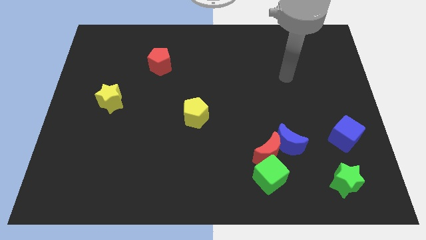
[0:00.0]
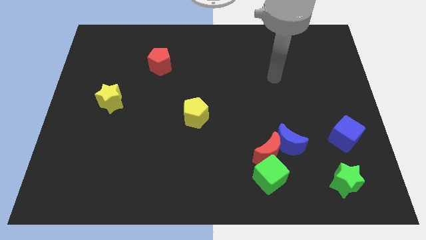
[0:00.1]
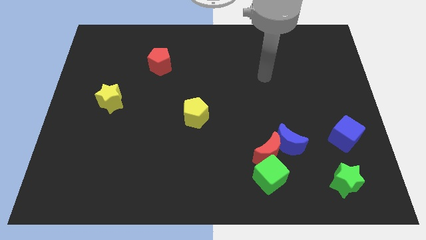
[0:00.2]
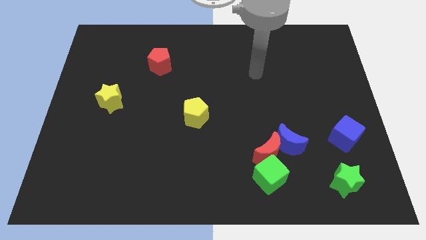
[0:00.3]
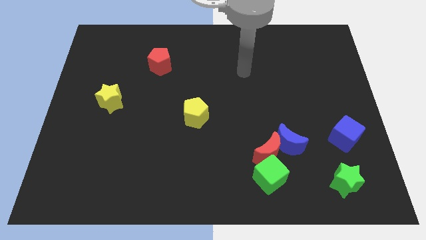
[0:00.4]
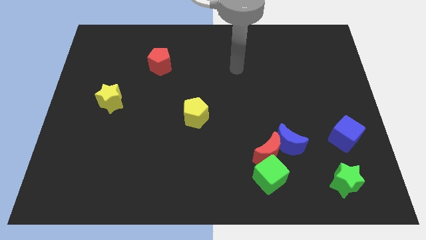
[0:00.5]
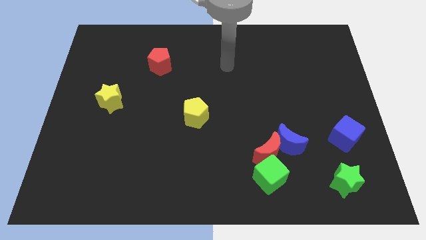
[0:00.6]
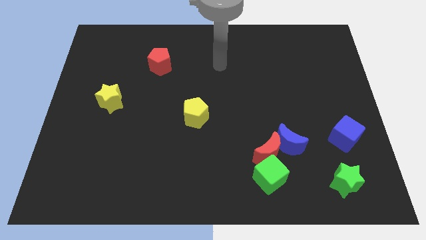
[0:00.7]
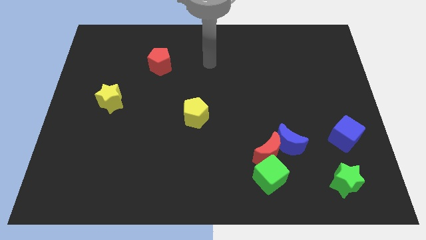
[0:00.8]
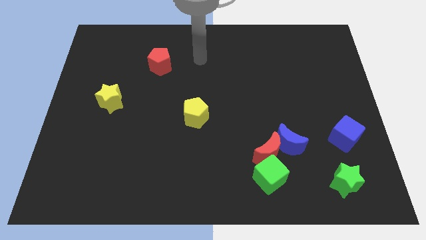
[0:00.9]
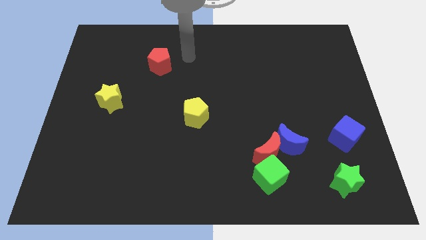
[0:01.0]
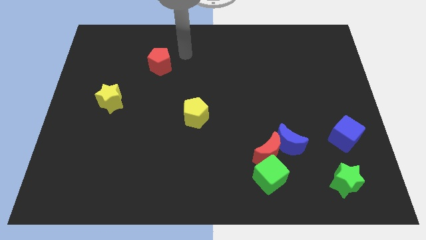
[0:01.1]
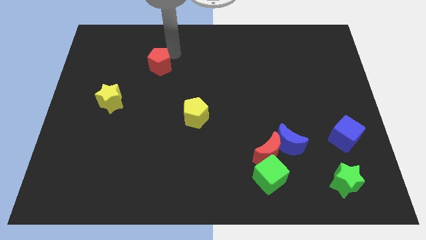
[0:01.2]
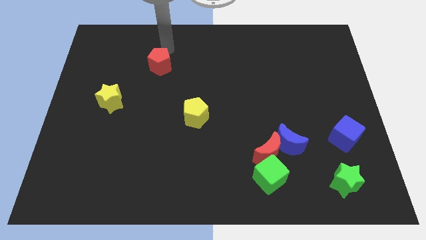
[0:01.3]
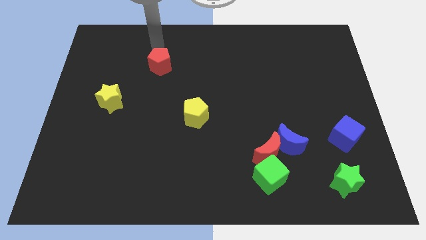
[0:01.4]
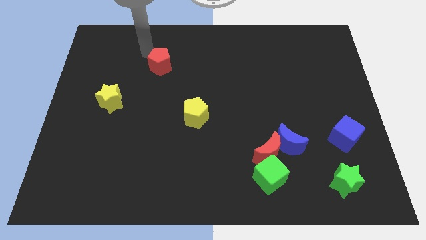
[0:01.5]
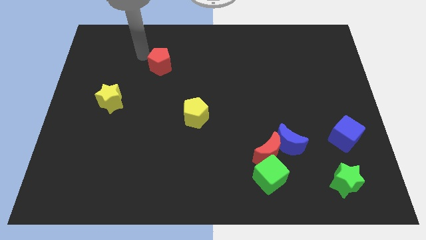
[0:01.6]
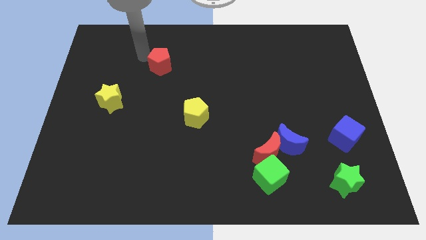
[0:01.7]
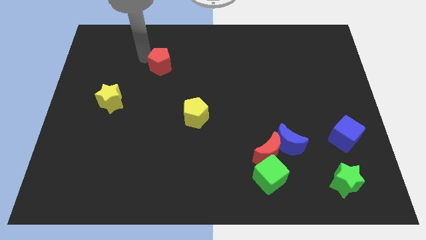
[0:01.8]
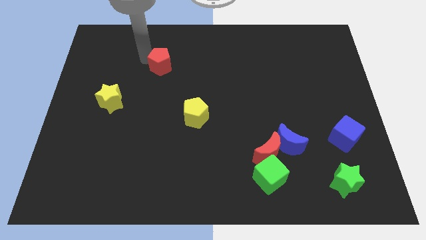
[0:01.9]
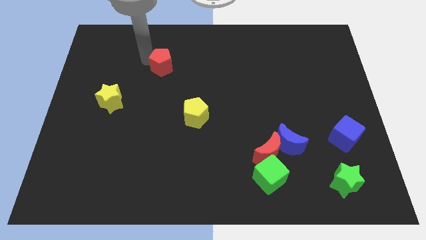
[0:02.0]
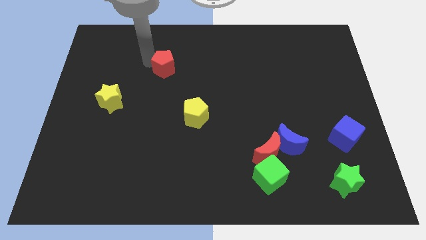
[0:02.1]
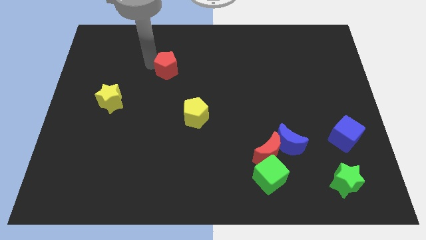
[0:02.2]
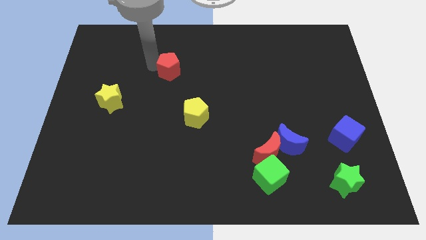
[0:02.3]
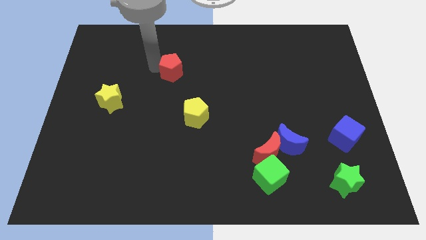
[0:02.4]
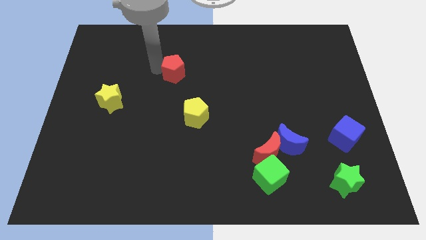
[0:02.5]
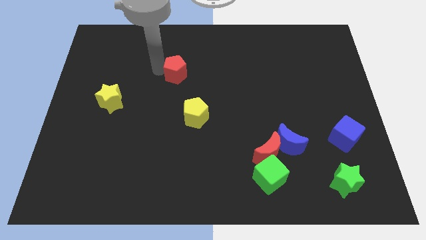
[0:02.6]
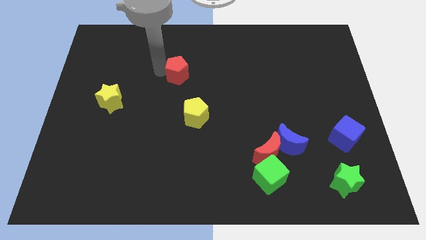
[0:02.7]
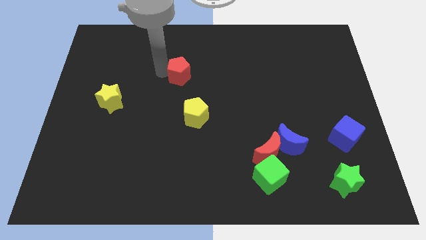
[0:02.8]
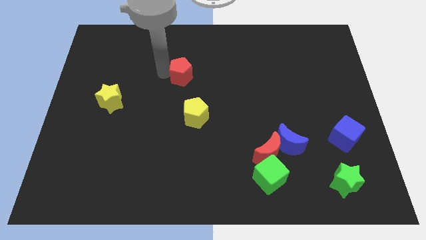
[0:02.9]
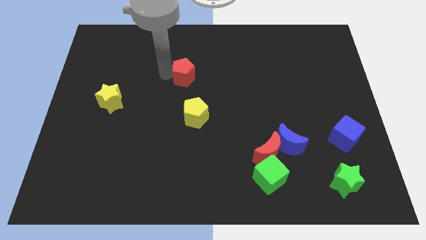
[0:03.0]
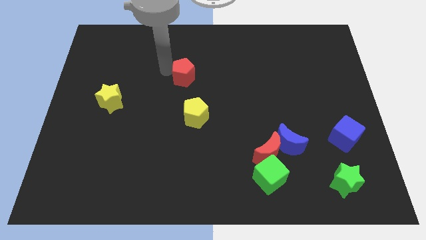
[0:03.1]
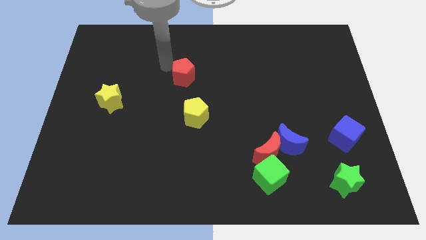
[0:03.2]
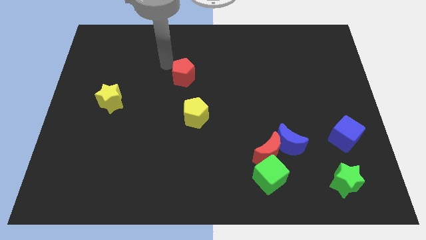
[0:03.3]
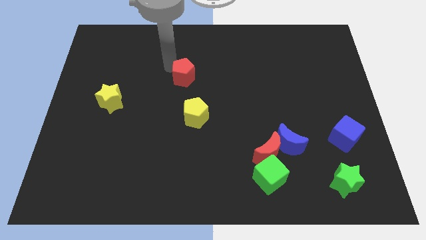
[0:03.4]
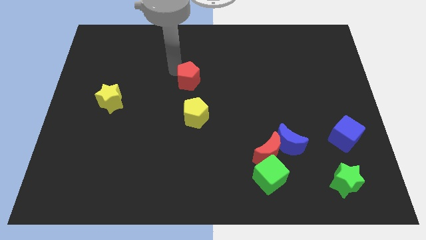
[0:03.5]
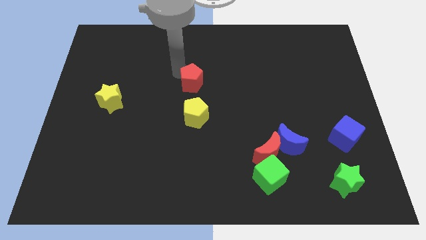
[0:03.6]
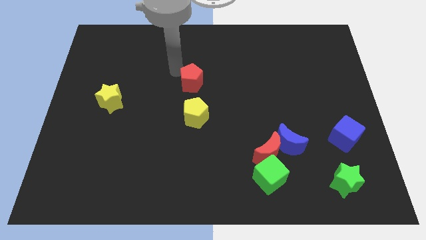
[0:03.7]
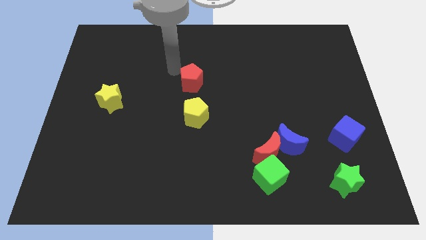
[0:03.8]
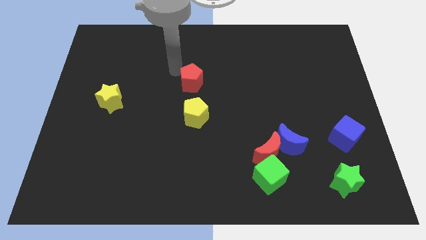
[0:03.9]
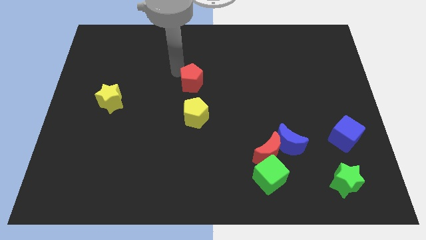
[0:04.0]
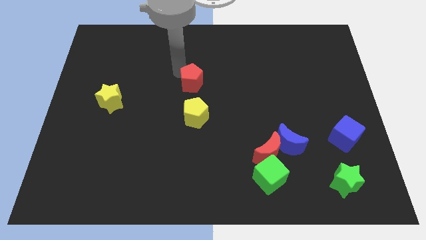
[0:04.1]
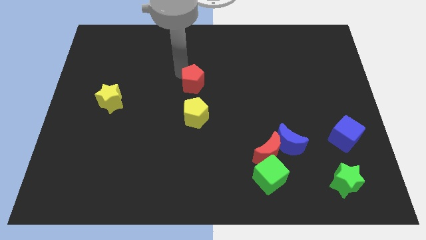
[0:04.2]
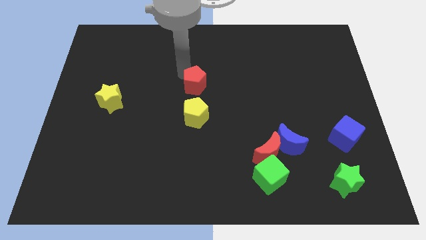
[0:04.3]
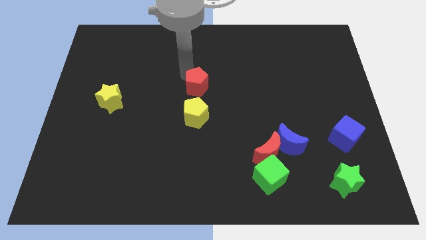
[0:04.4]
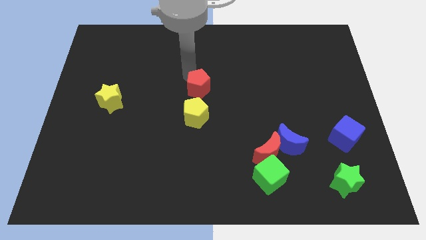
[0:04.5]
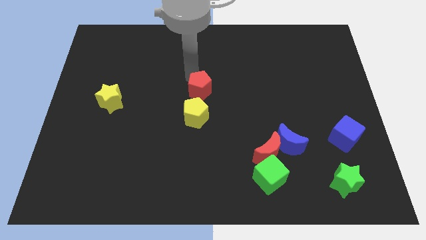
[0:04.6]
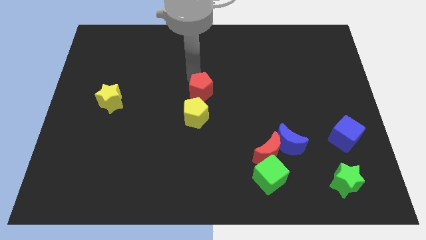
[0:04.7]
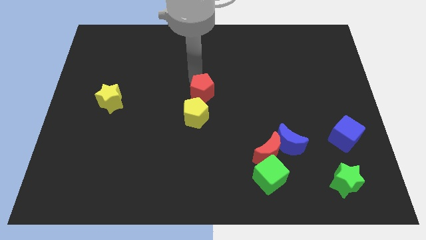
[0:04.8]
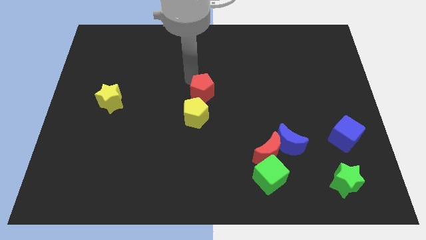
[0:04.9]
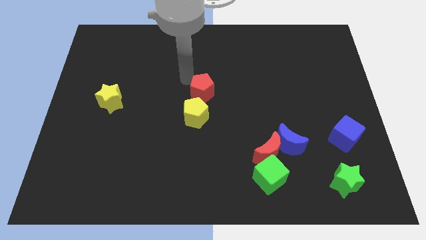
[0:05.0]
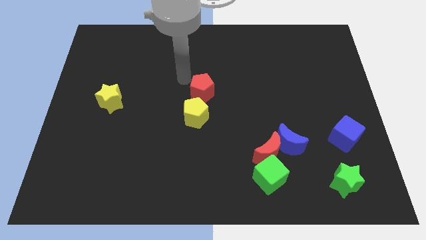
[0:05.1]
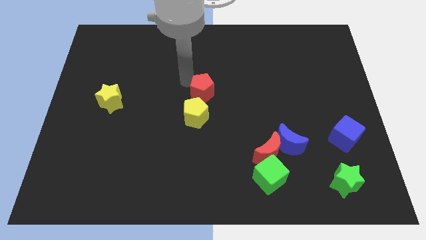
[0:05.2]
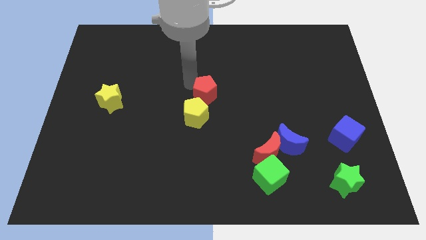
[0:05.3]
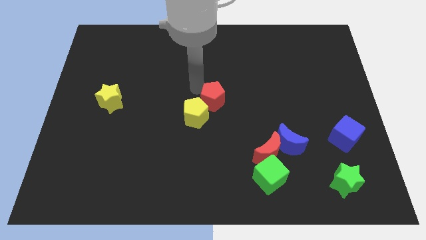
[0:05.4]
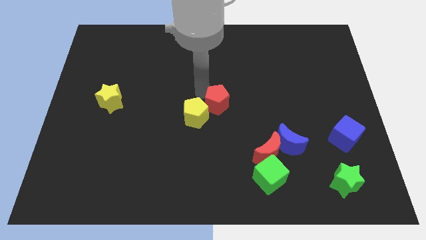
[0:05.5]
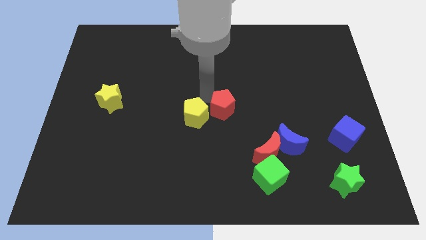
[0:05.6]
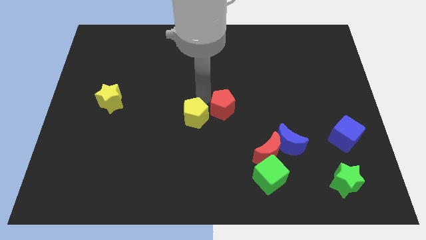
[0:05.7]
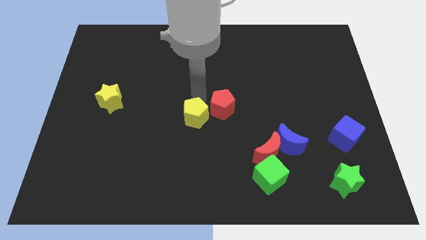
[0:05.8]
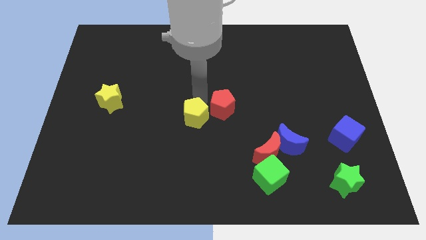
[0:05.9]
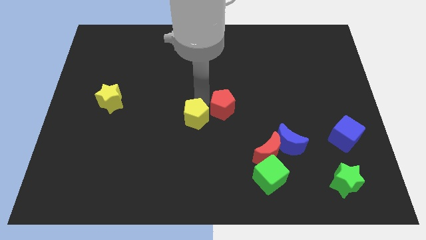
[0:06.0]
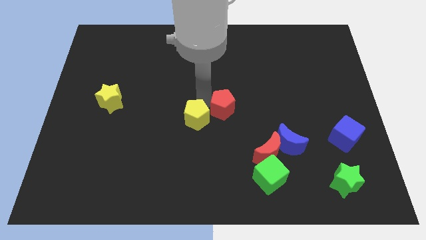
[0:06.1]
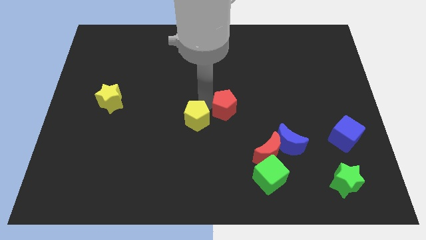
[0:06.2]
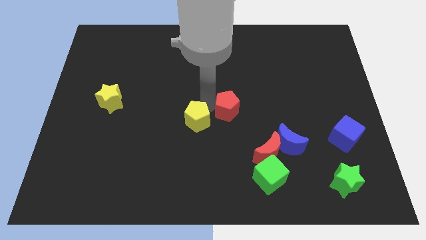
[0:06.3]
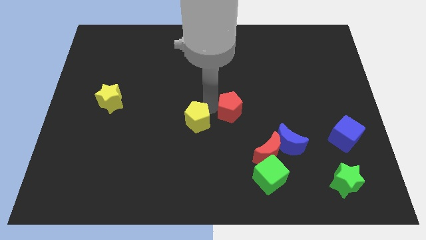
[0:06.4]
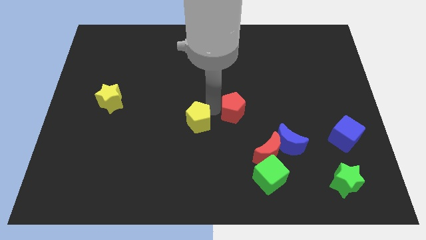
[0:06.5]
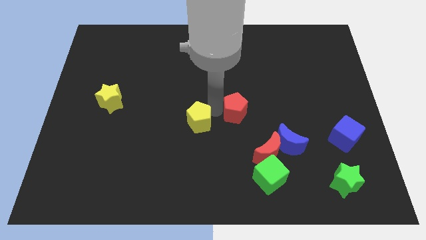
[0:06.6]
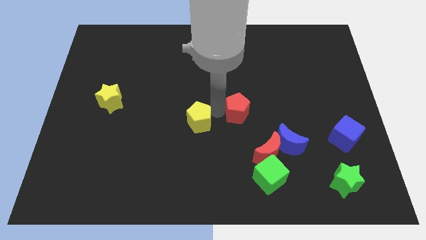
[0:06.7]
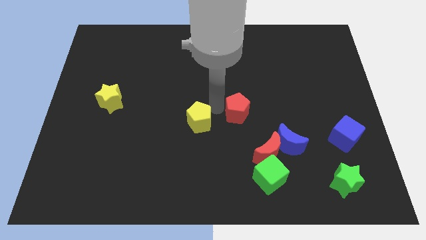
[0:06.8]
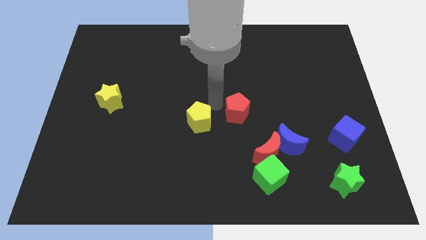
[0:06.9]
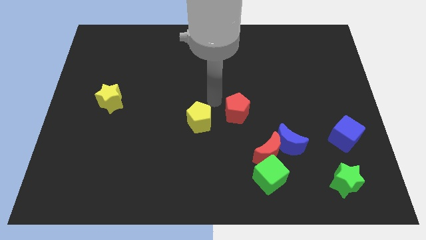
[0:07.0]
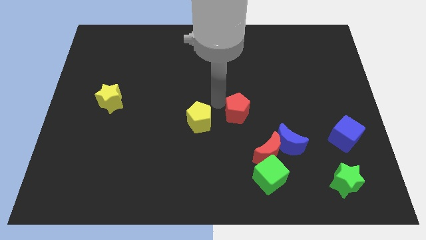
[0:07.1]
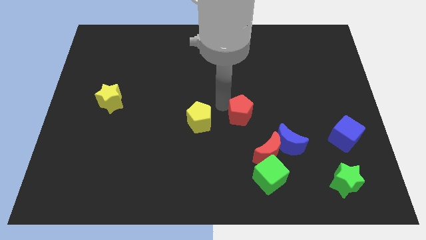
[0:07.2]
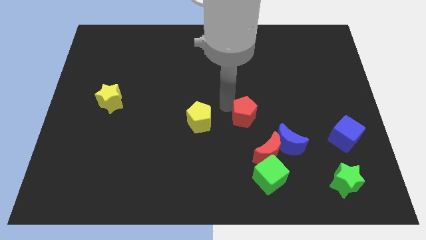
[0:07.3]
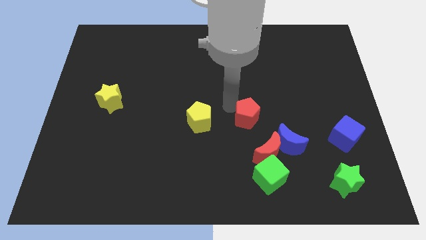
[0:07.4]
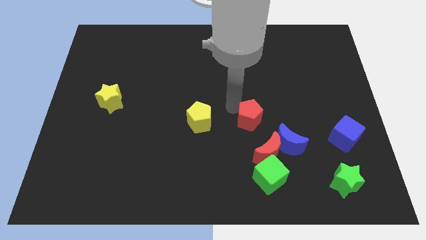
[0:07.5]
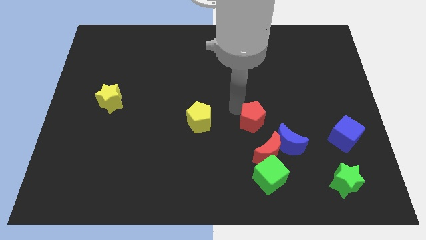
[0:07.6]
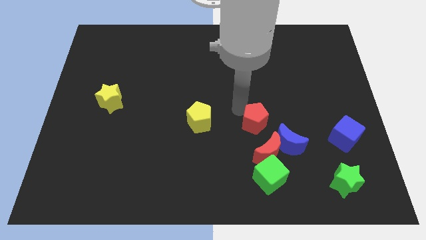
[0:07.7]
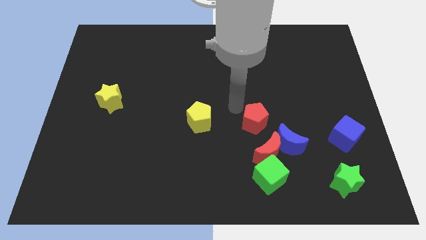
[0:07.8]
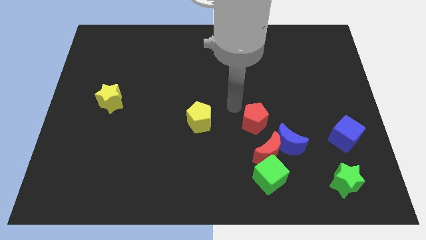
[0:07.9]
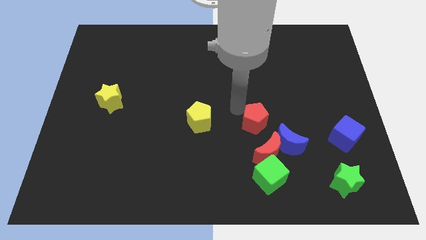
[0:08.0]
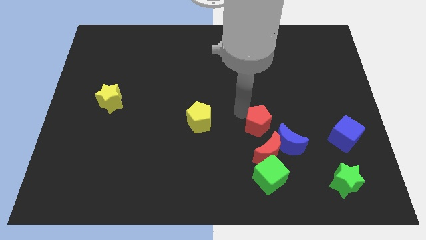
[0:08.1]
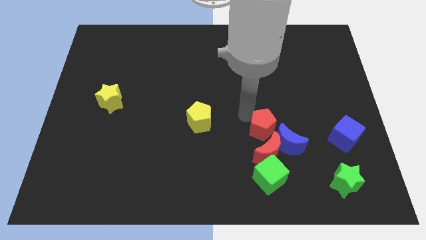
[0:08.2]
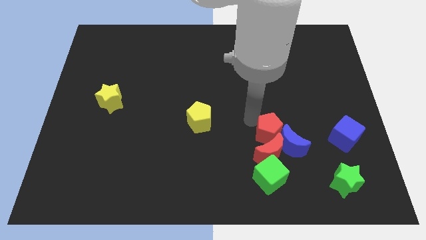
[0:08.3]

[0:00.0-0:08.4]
slide the red pentagon close to the blue moon

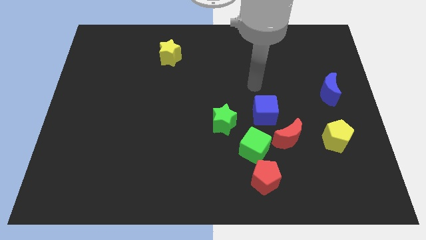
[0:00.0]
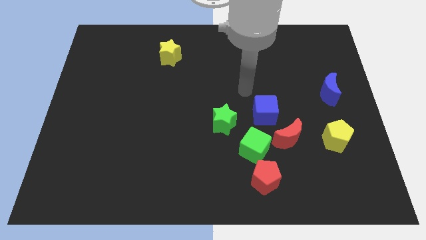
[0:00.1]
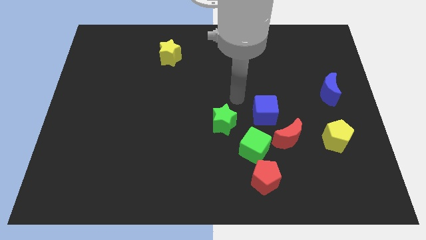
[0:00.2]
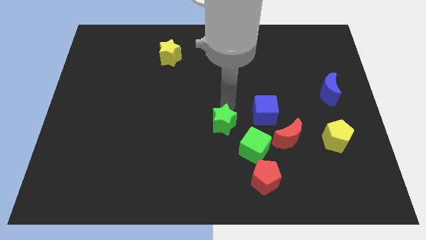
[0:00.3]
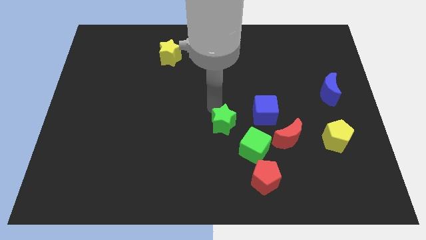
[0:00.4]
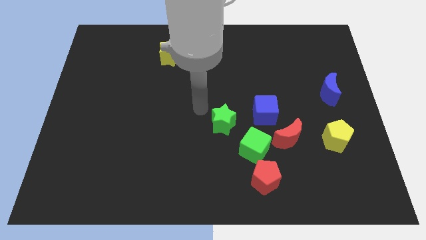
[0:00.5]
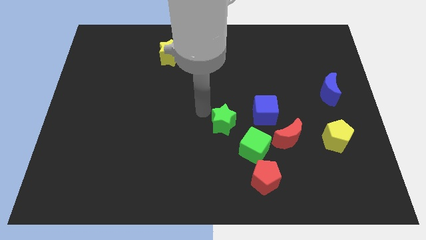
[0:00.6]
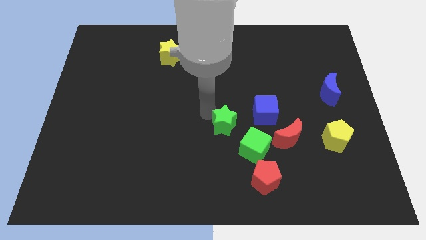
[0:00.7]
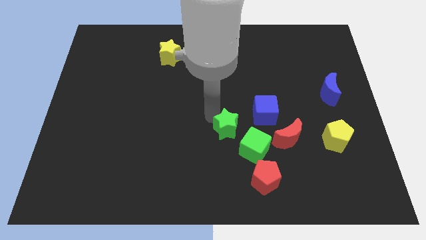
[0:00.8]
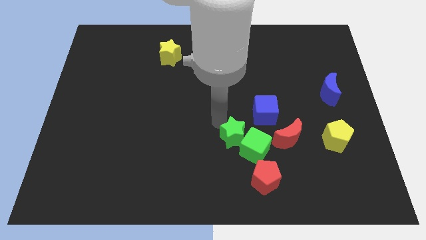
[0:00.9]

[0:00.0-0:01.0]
put the green star towards the green cube
